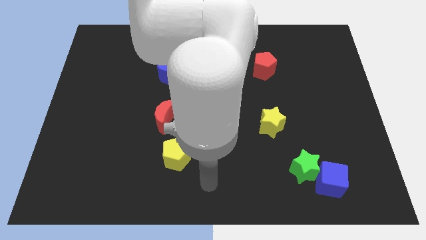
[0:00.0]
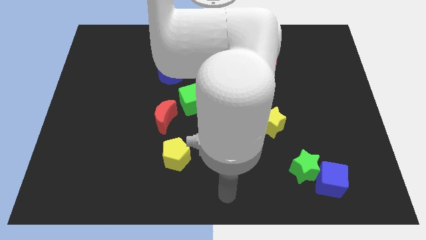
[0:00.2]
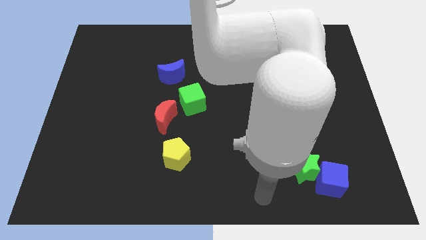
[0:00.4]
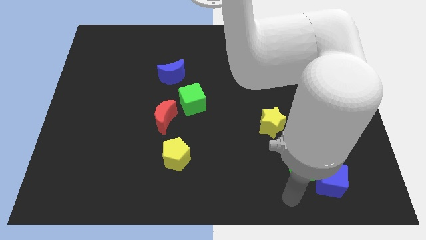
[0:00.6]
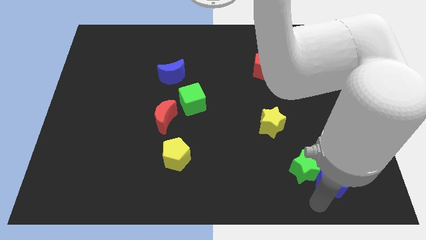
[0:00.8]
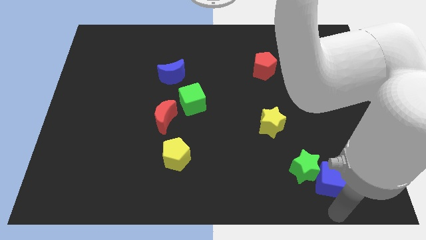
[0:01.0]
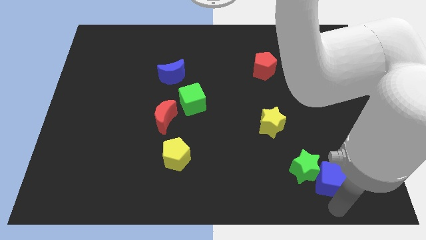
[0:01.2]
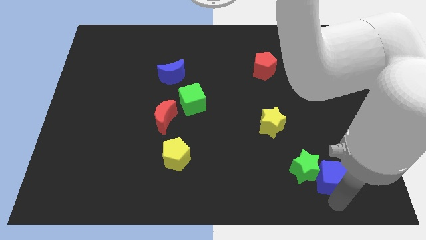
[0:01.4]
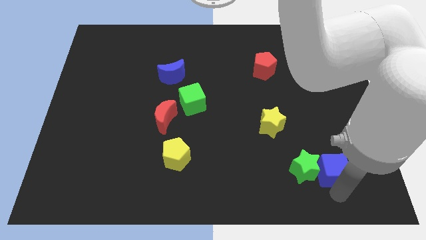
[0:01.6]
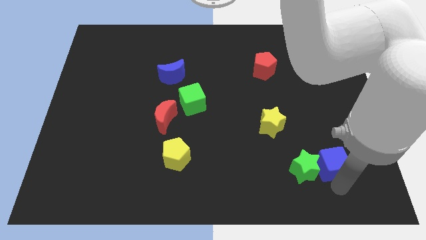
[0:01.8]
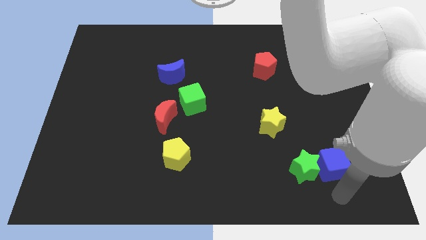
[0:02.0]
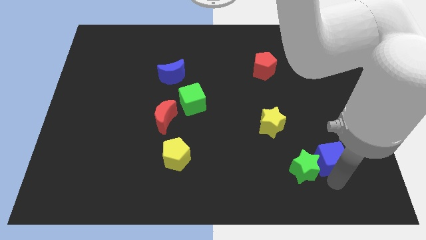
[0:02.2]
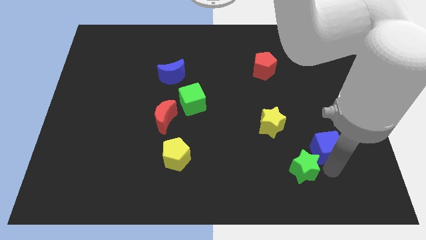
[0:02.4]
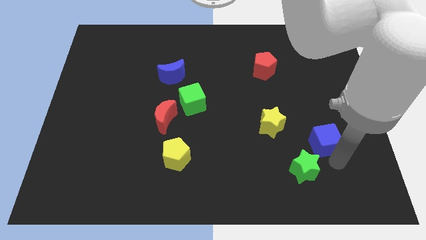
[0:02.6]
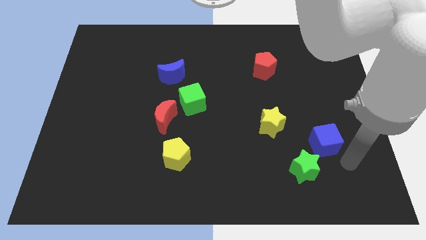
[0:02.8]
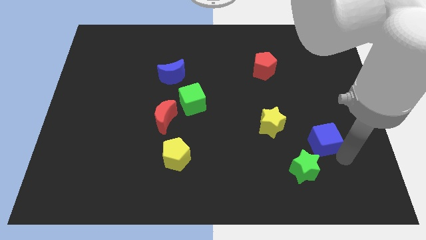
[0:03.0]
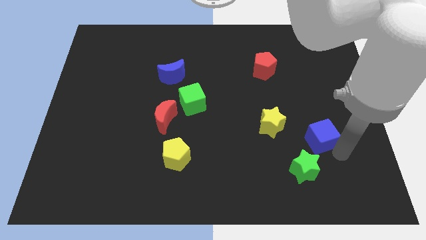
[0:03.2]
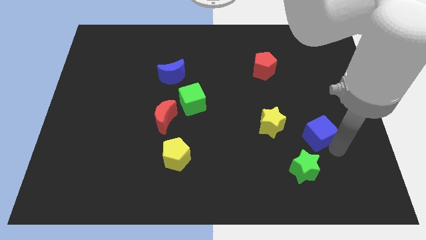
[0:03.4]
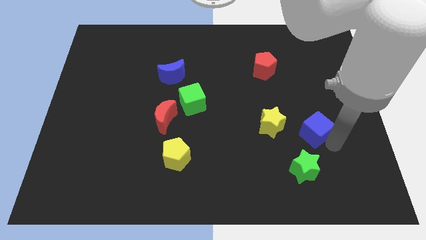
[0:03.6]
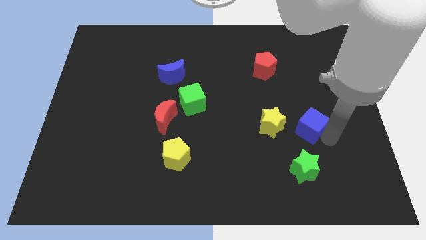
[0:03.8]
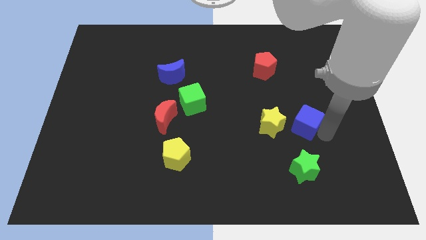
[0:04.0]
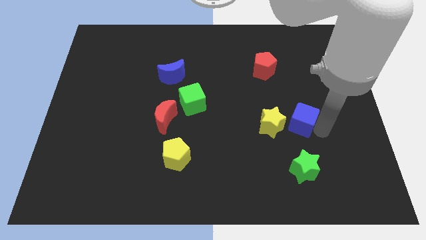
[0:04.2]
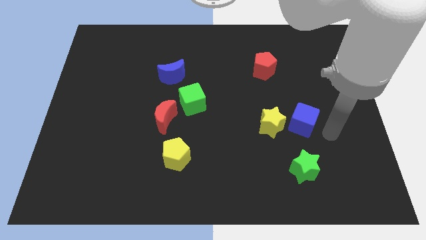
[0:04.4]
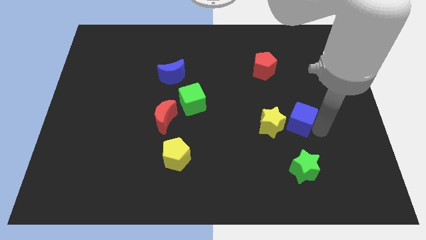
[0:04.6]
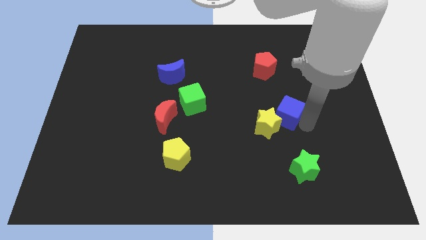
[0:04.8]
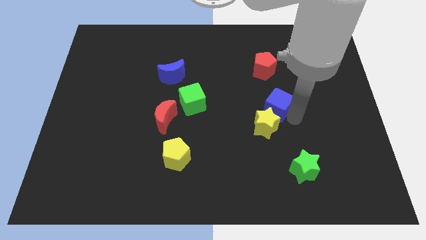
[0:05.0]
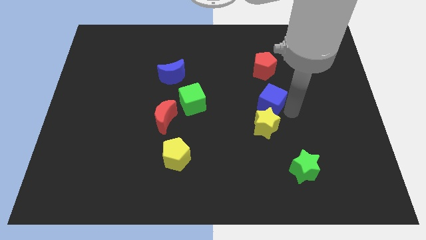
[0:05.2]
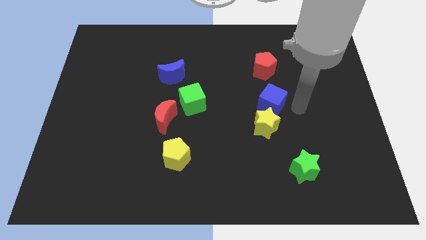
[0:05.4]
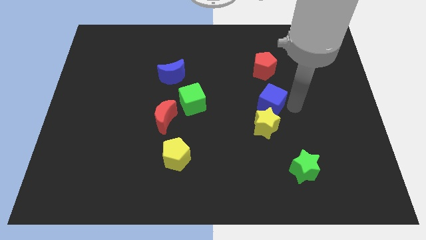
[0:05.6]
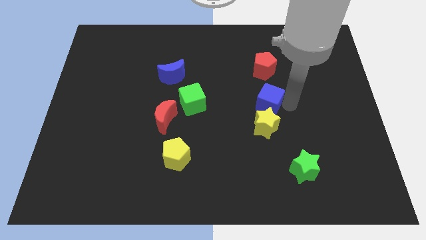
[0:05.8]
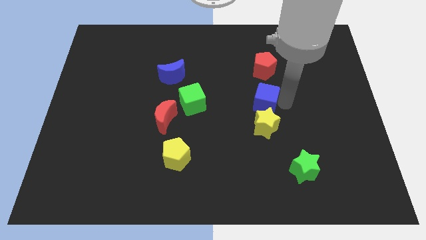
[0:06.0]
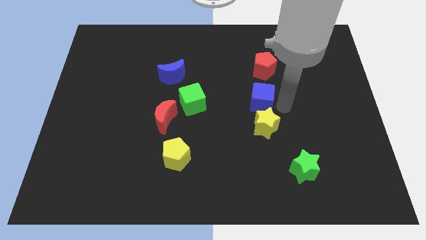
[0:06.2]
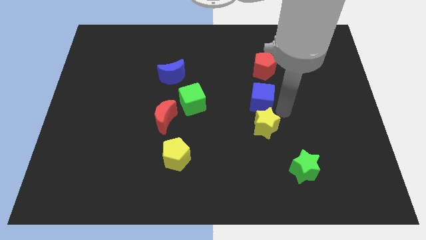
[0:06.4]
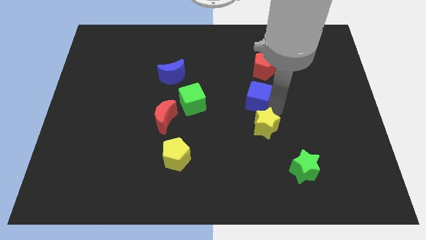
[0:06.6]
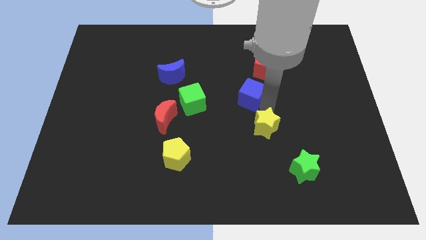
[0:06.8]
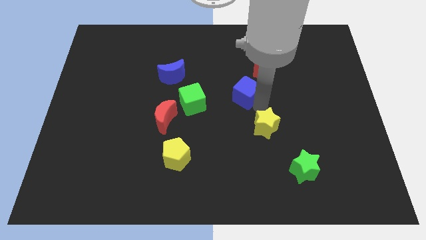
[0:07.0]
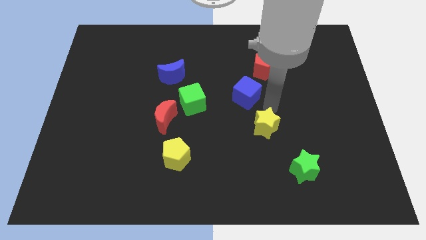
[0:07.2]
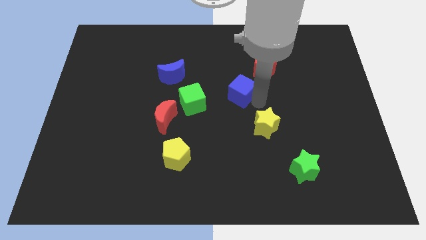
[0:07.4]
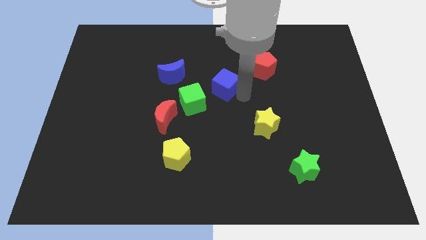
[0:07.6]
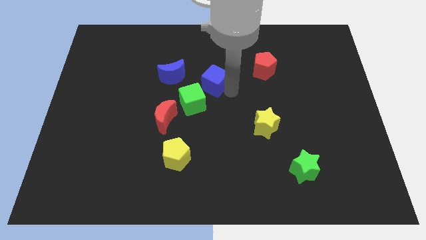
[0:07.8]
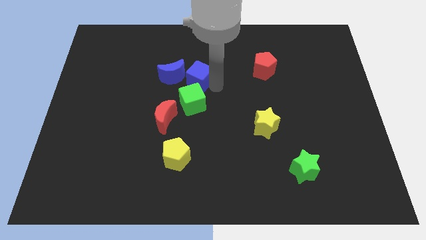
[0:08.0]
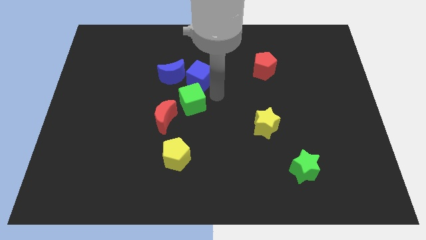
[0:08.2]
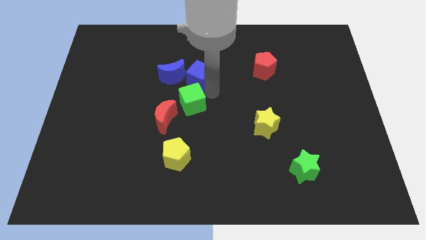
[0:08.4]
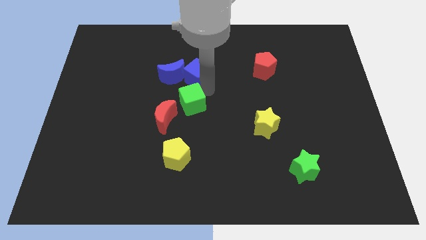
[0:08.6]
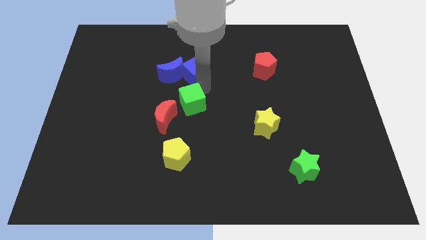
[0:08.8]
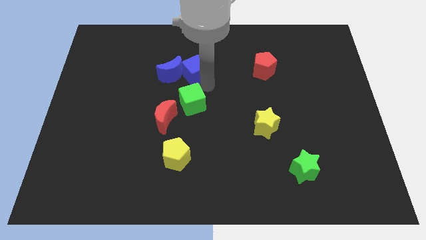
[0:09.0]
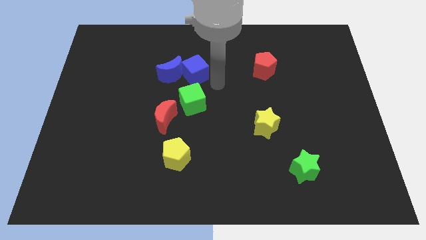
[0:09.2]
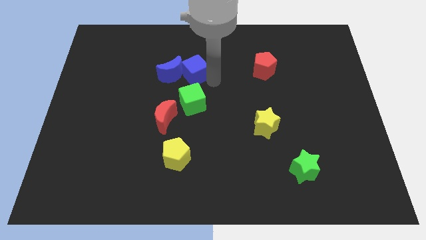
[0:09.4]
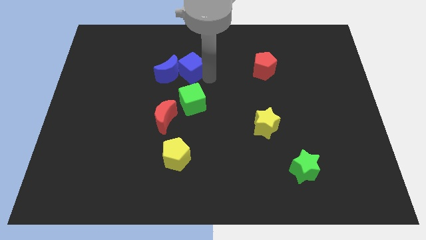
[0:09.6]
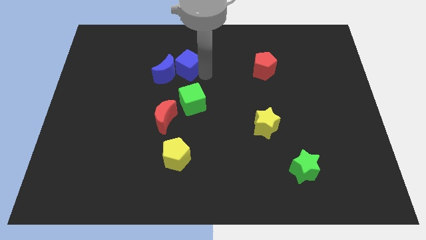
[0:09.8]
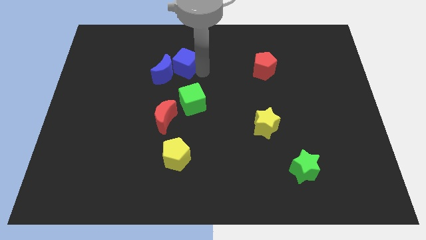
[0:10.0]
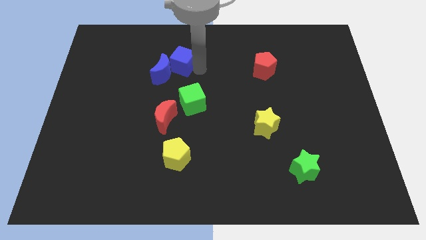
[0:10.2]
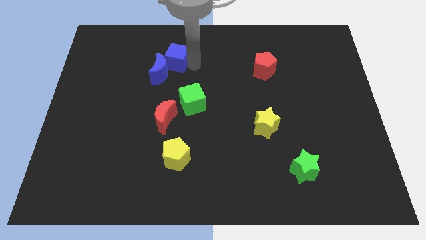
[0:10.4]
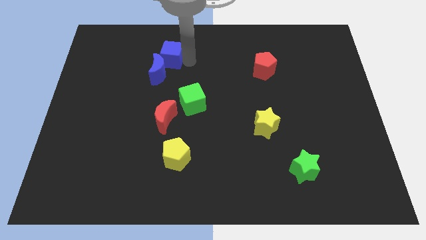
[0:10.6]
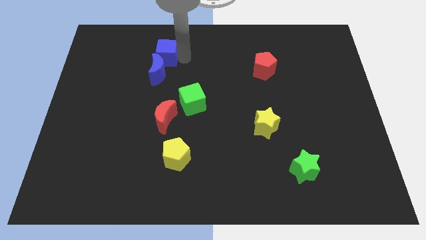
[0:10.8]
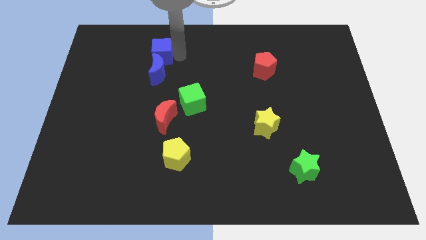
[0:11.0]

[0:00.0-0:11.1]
put the blue cube to the top left side of the blue moon
